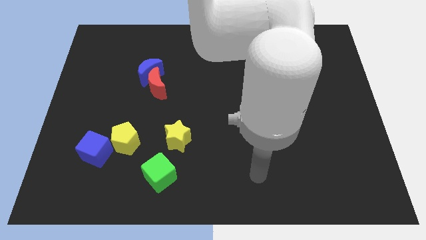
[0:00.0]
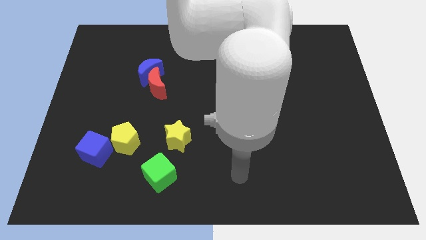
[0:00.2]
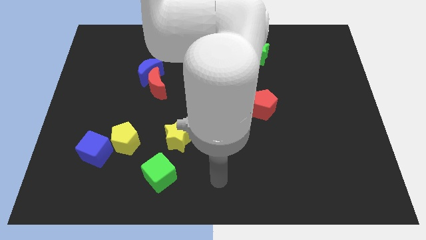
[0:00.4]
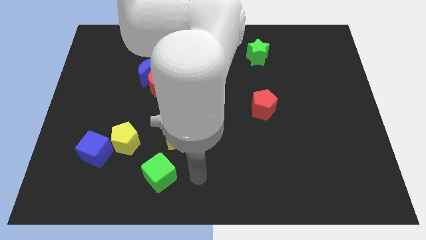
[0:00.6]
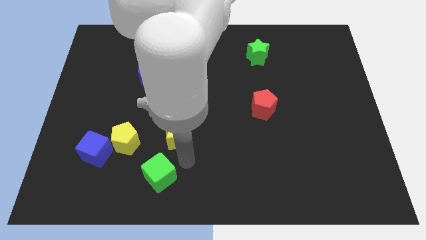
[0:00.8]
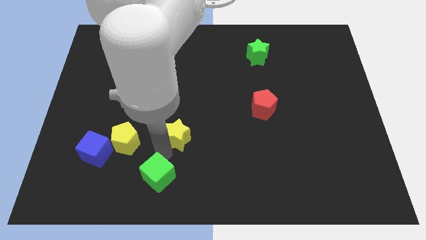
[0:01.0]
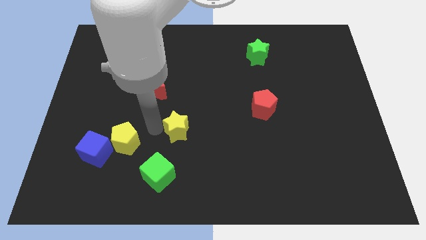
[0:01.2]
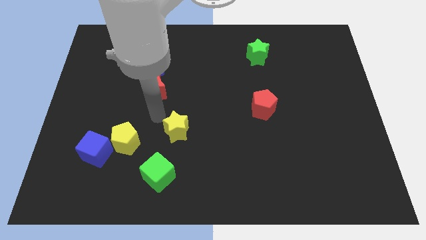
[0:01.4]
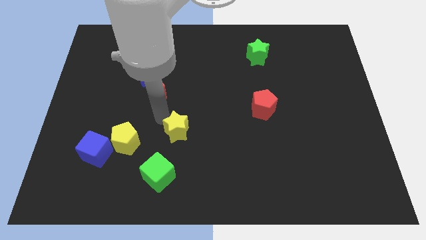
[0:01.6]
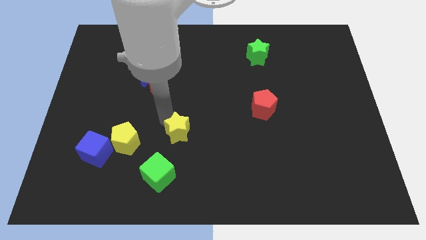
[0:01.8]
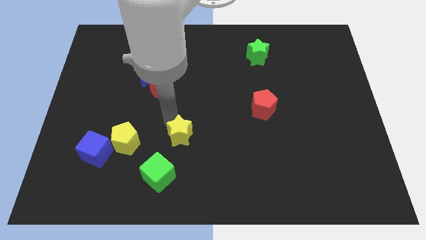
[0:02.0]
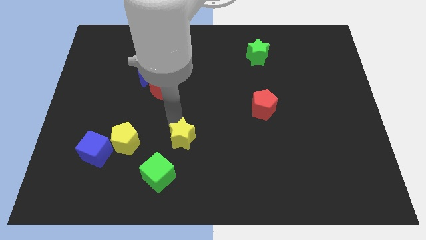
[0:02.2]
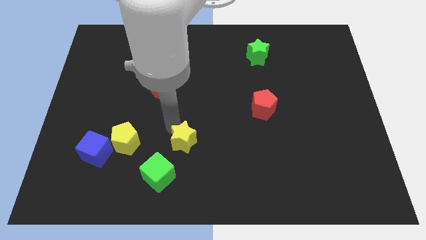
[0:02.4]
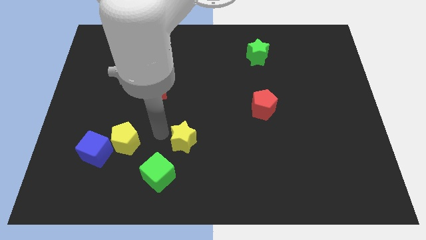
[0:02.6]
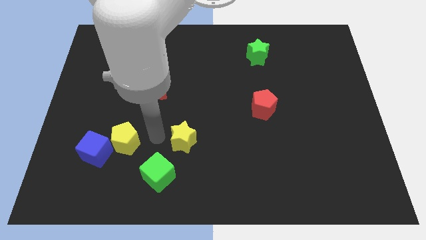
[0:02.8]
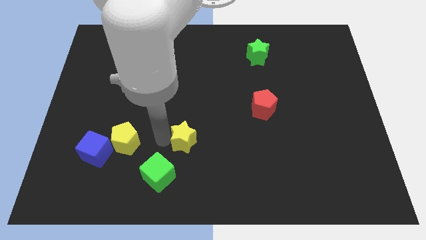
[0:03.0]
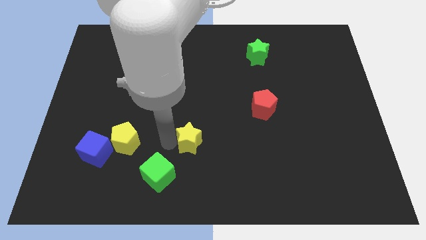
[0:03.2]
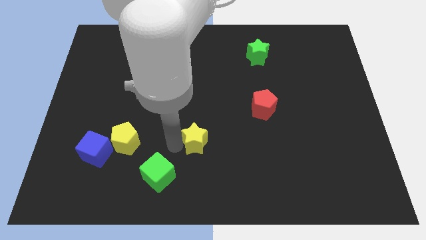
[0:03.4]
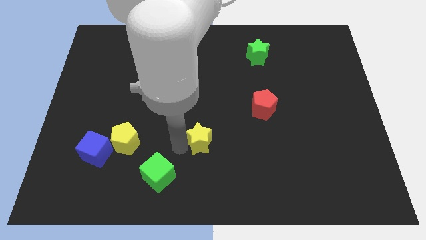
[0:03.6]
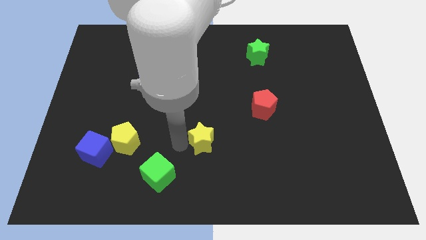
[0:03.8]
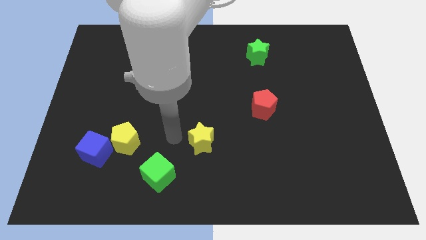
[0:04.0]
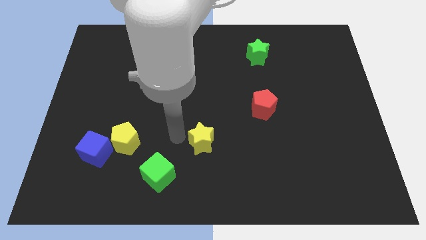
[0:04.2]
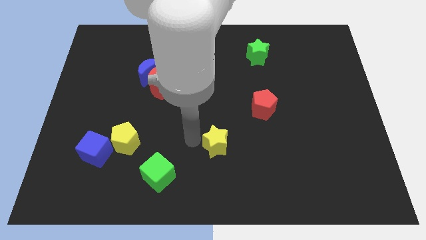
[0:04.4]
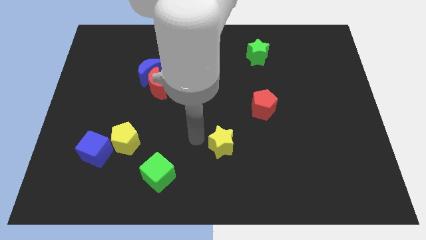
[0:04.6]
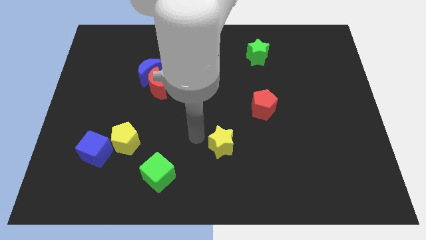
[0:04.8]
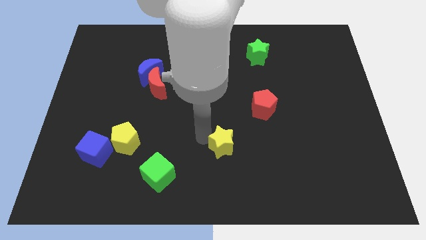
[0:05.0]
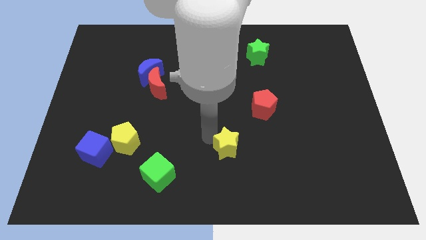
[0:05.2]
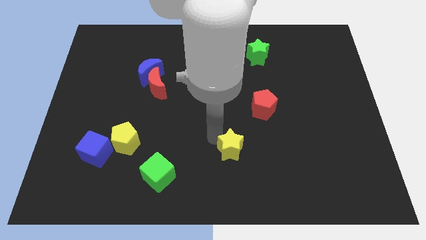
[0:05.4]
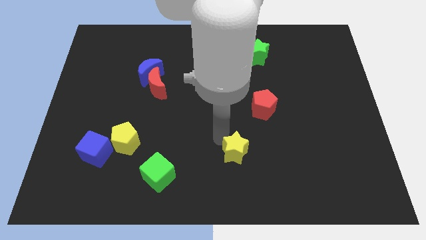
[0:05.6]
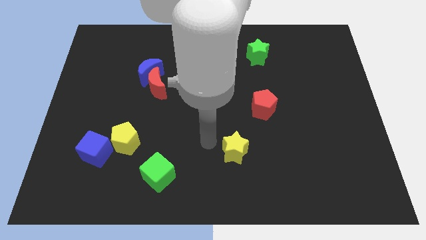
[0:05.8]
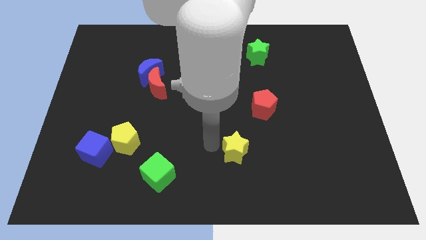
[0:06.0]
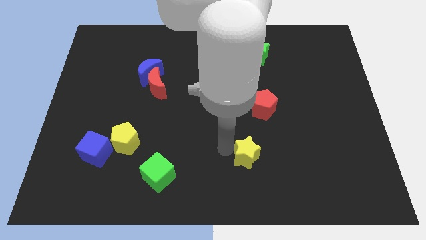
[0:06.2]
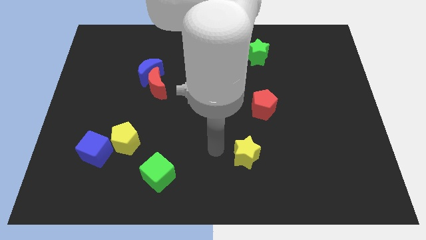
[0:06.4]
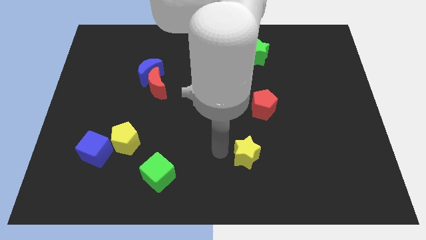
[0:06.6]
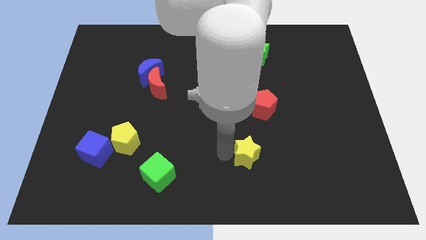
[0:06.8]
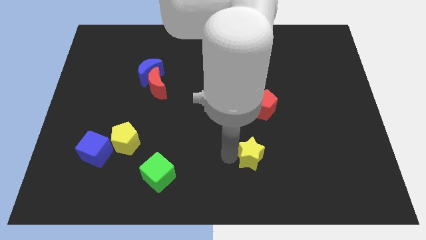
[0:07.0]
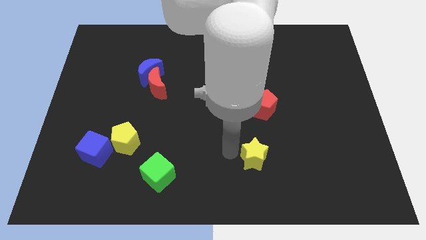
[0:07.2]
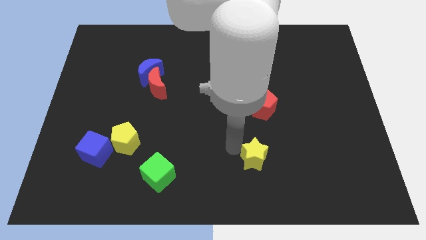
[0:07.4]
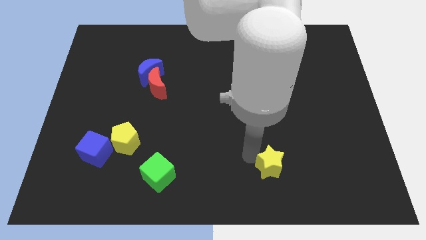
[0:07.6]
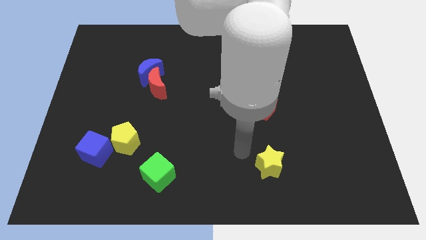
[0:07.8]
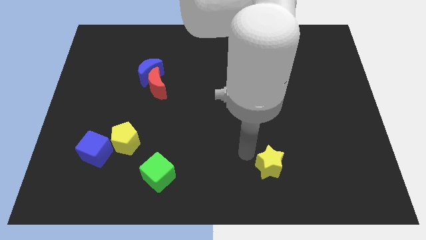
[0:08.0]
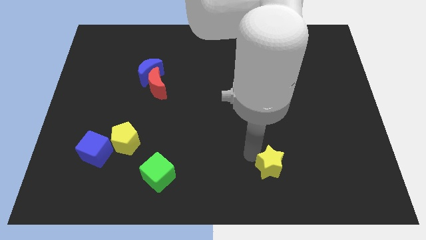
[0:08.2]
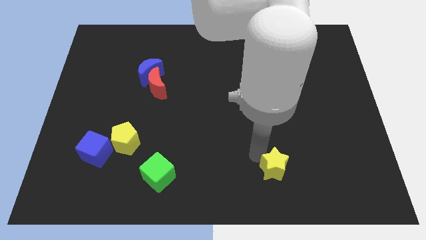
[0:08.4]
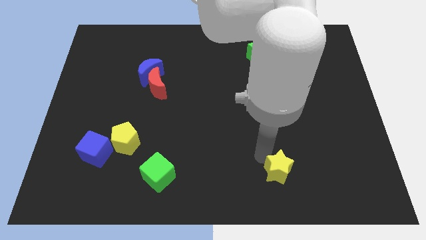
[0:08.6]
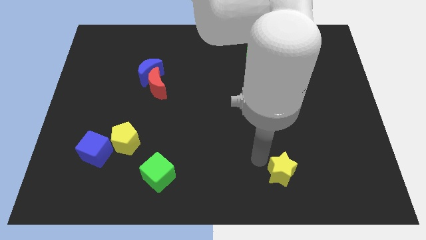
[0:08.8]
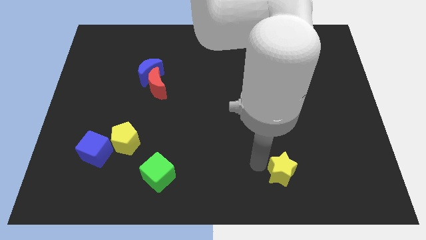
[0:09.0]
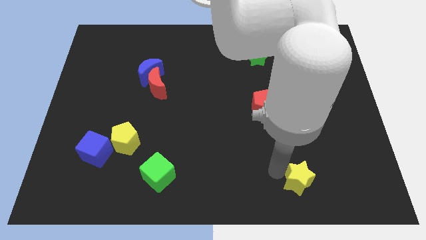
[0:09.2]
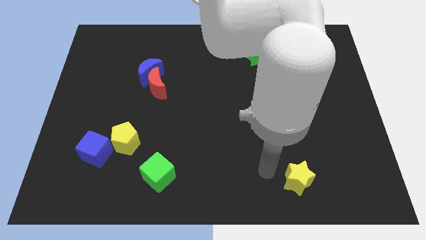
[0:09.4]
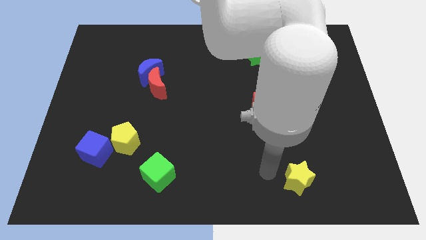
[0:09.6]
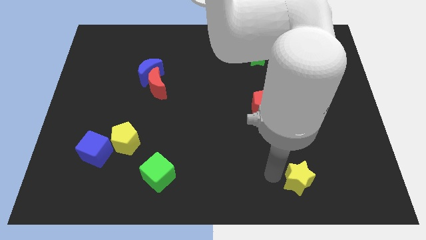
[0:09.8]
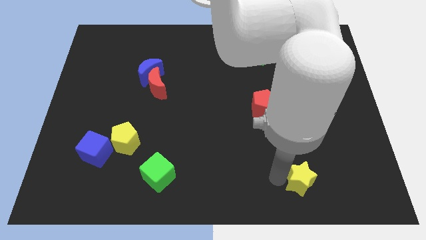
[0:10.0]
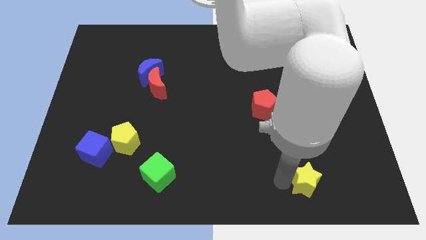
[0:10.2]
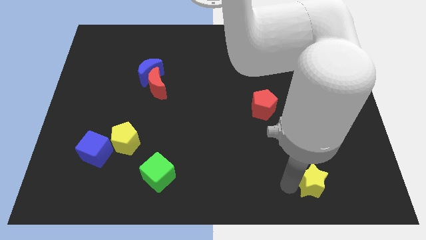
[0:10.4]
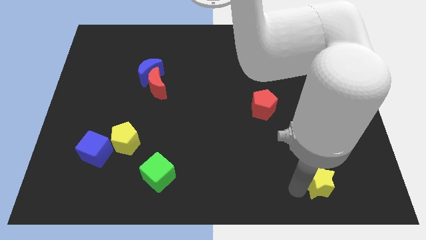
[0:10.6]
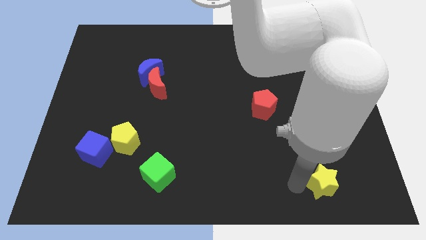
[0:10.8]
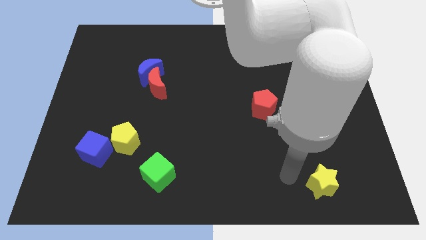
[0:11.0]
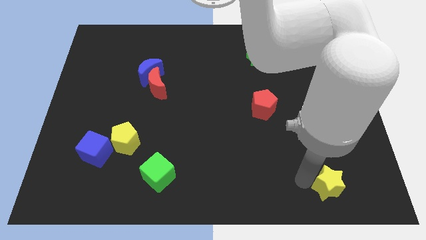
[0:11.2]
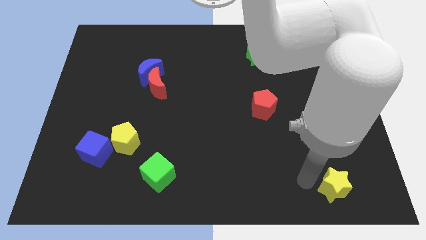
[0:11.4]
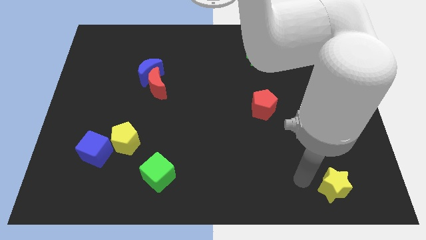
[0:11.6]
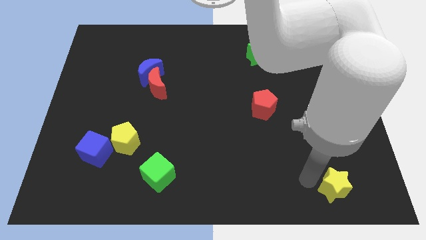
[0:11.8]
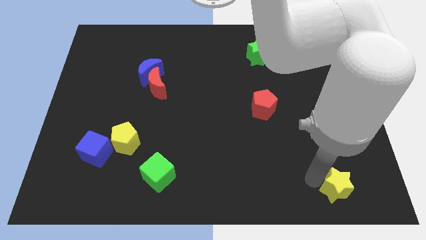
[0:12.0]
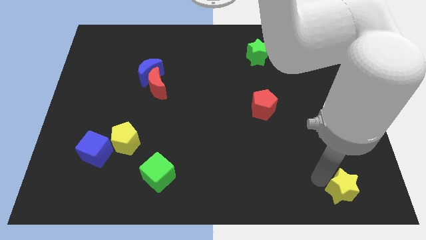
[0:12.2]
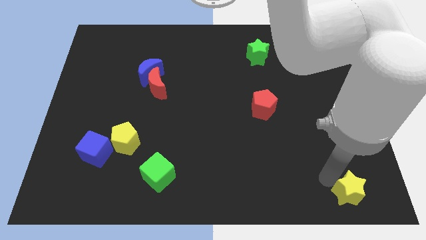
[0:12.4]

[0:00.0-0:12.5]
push the yellow star to the lower right corner
